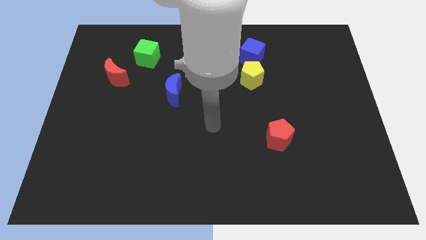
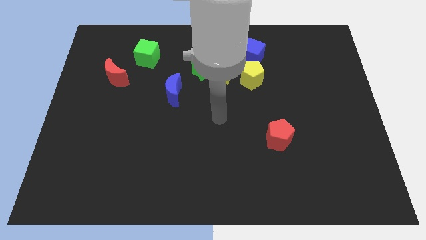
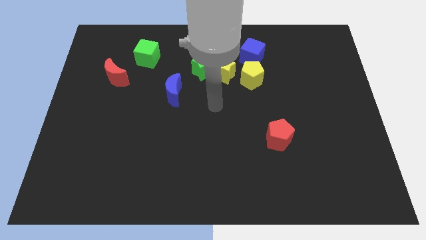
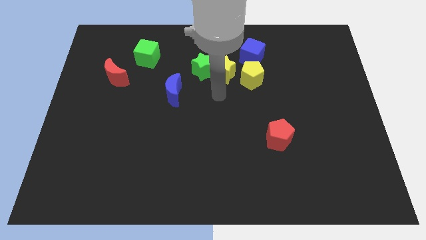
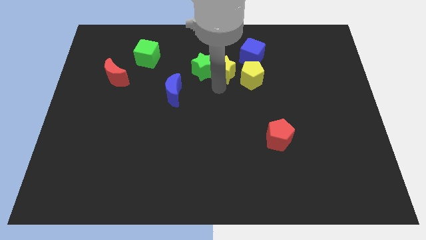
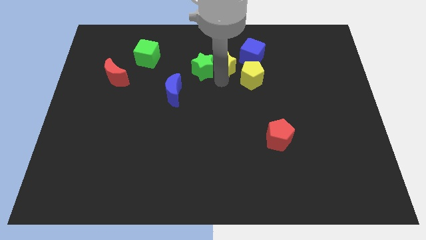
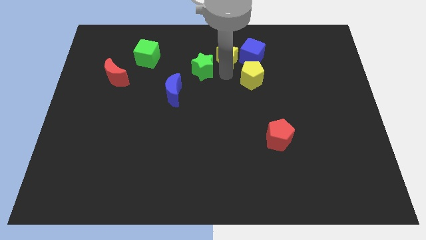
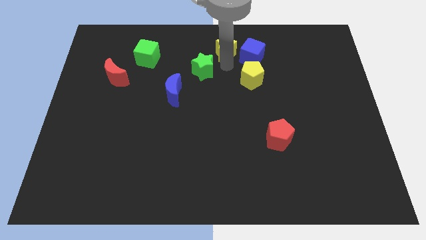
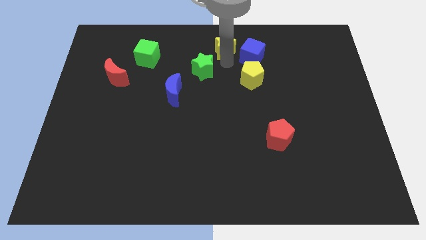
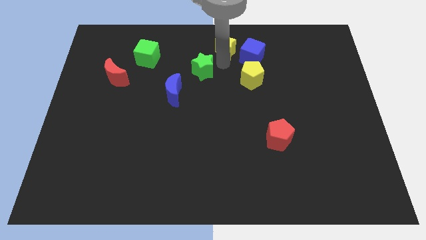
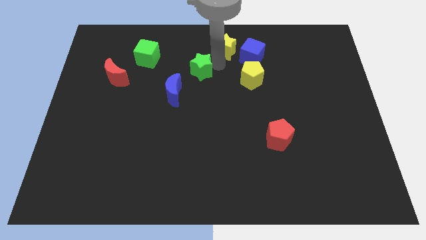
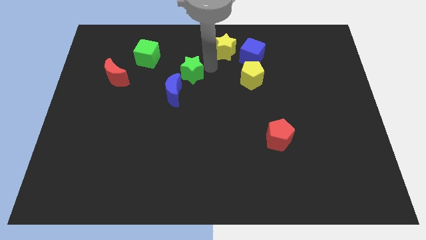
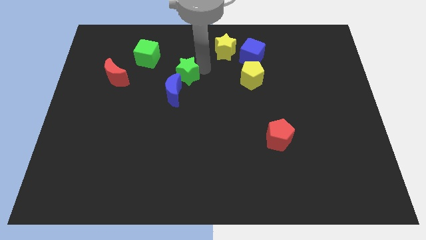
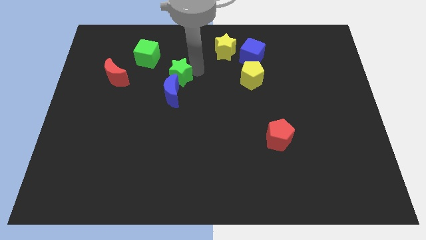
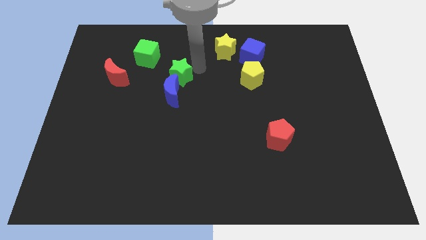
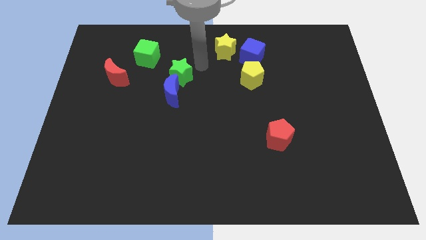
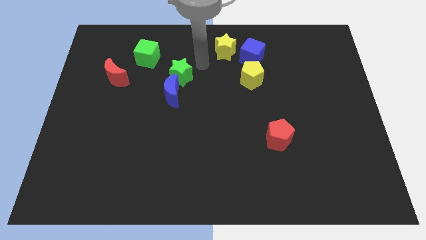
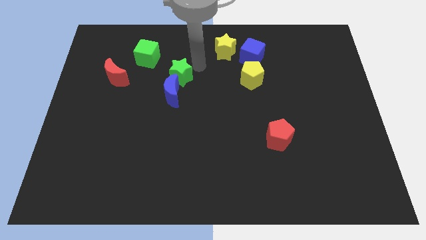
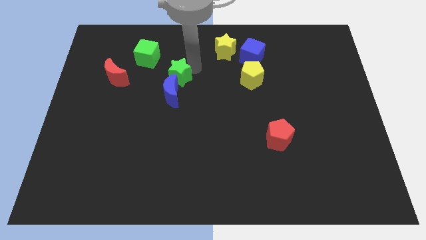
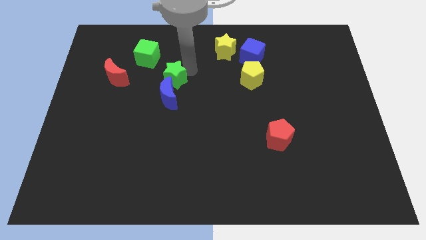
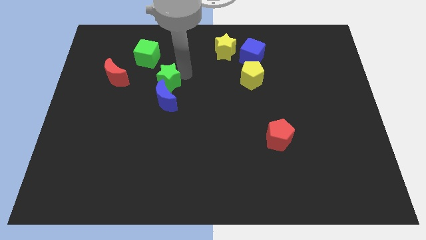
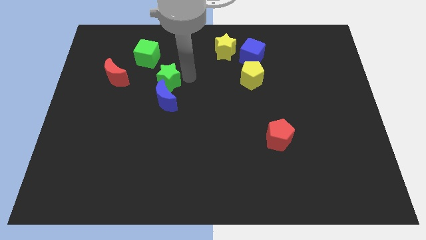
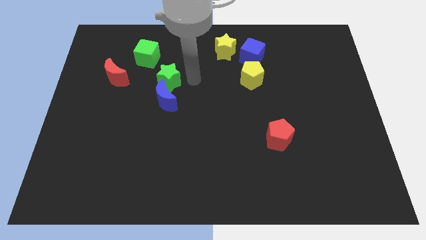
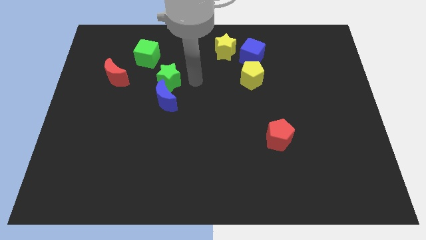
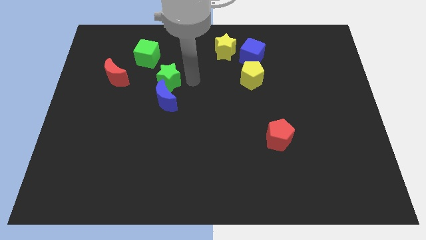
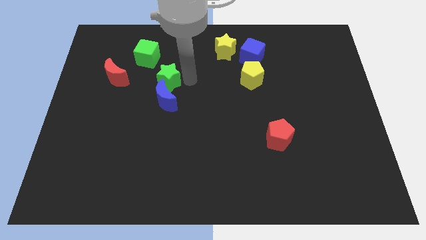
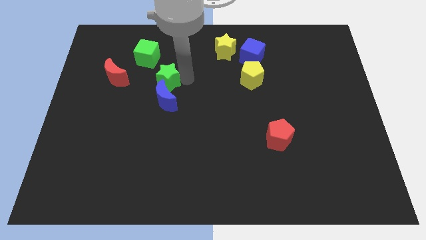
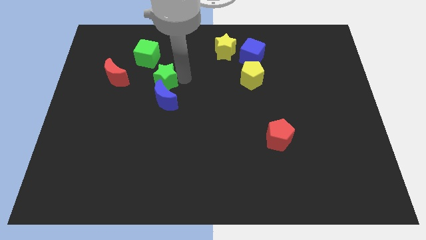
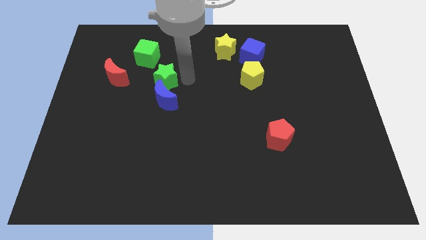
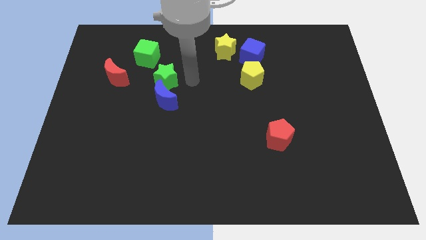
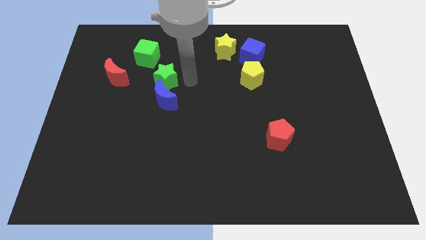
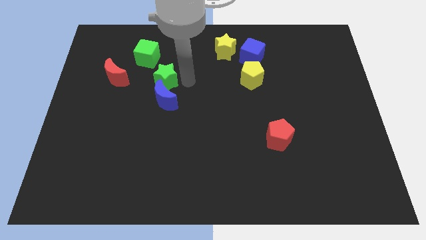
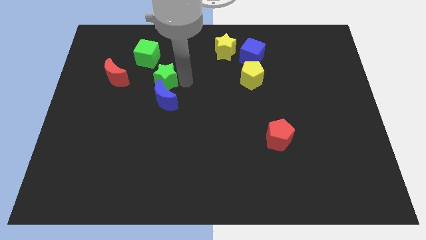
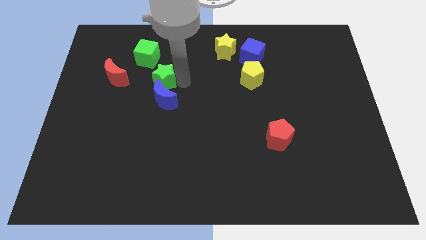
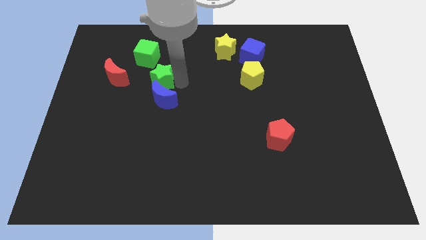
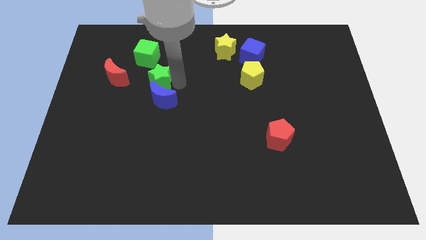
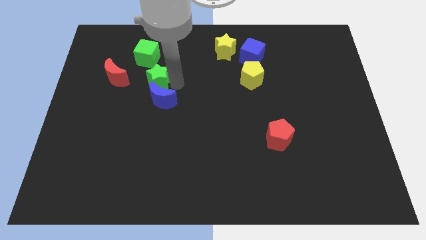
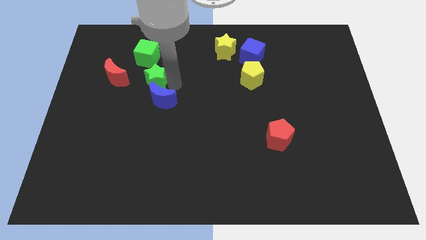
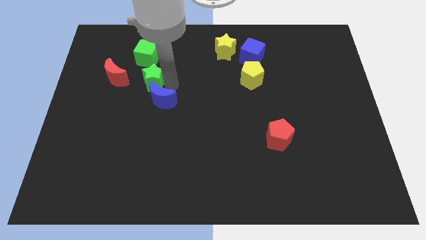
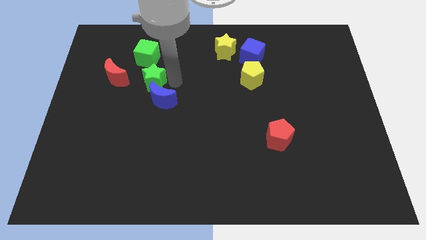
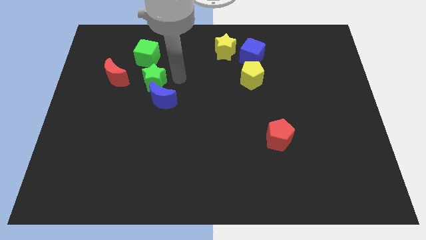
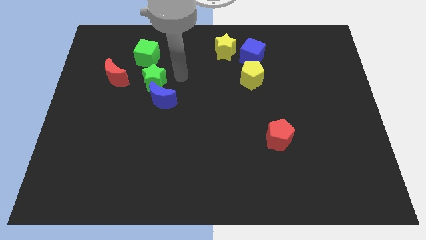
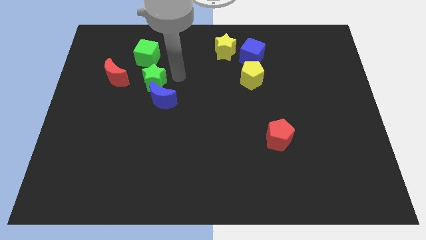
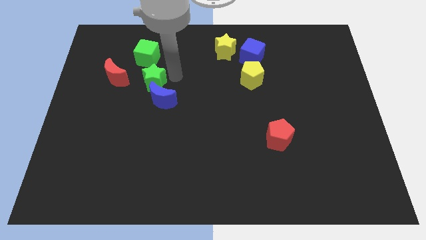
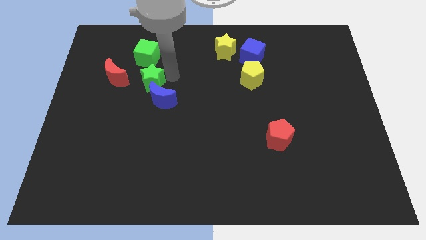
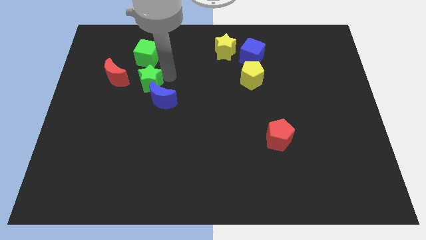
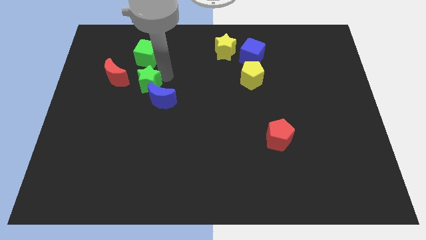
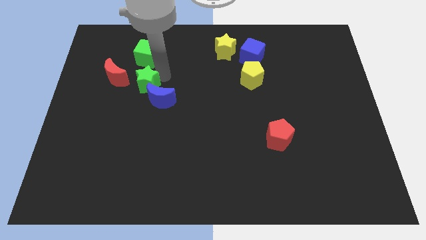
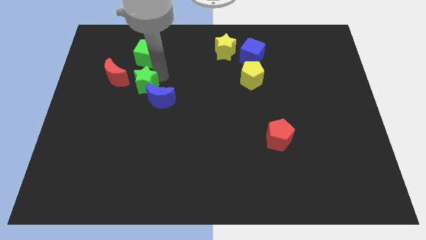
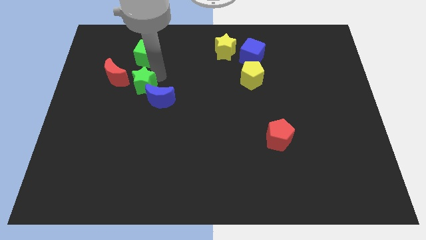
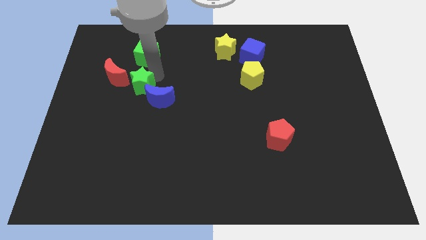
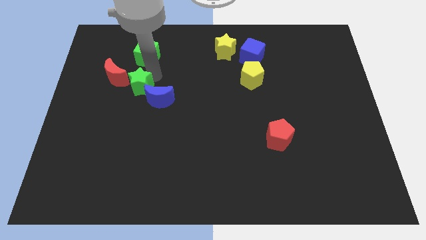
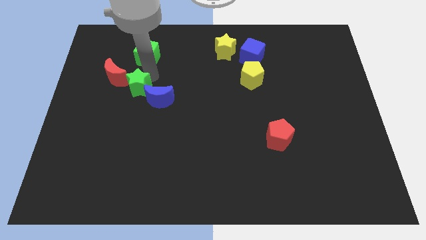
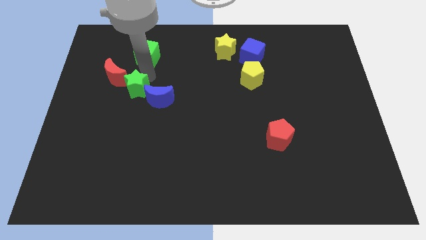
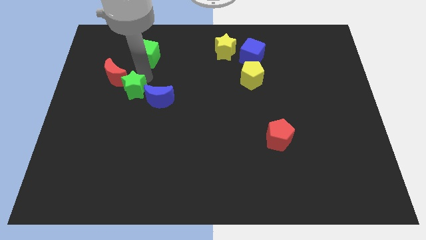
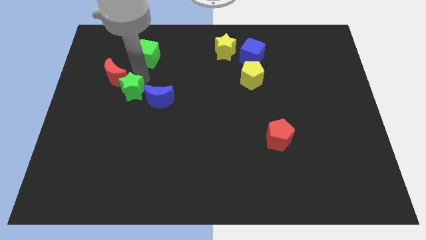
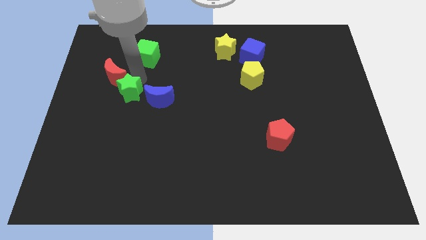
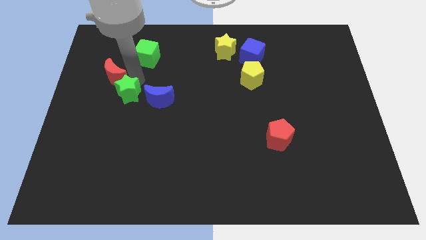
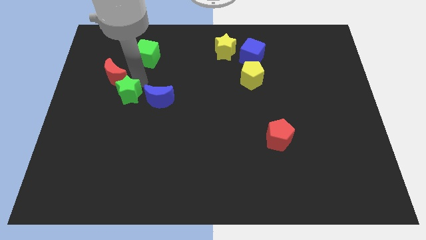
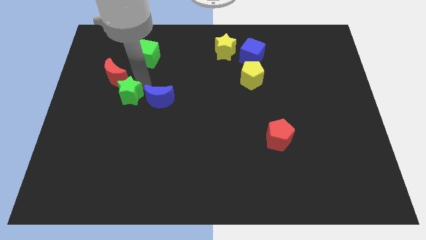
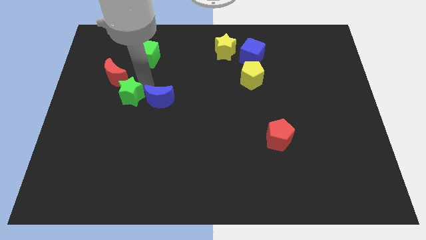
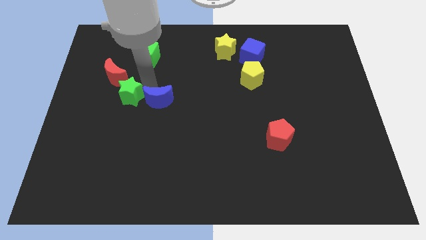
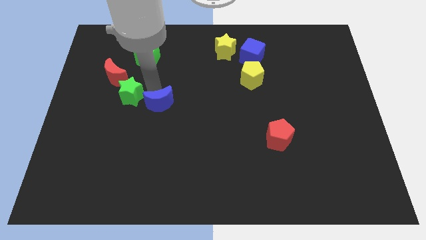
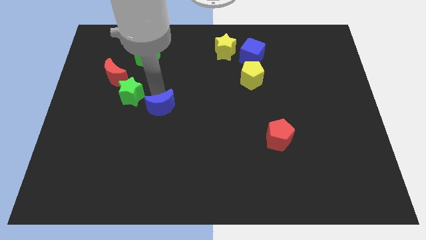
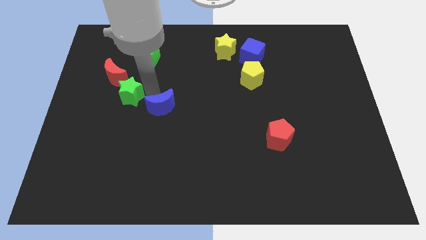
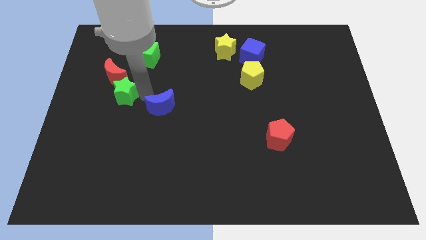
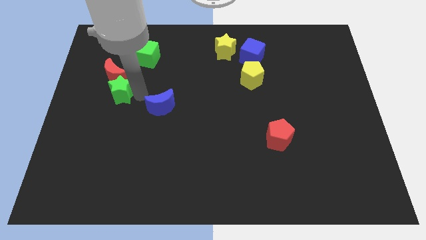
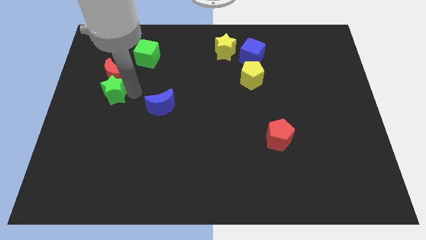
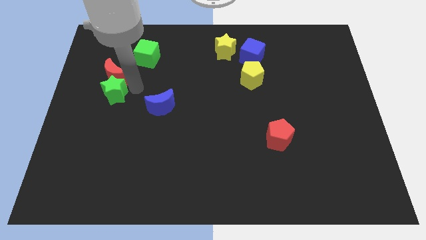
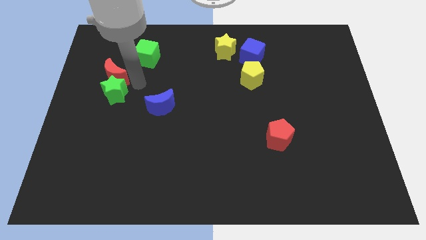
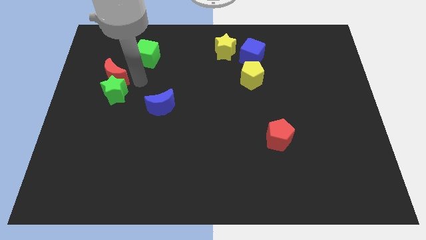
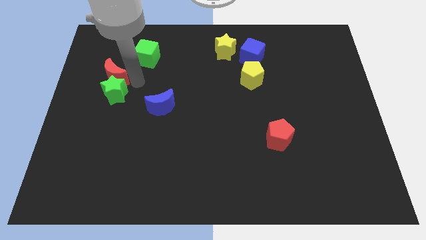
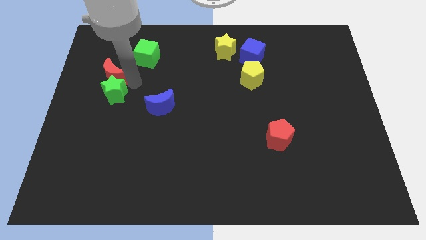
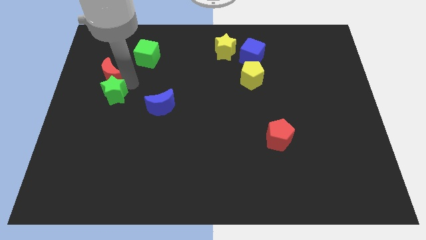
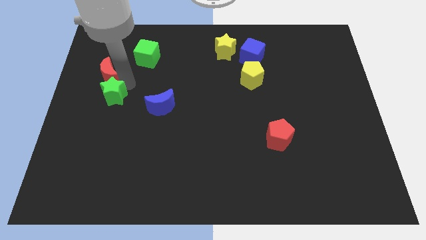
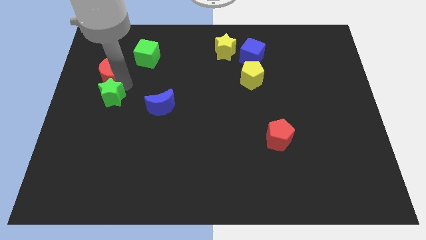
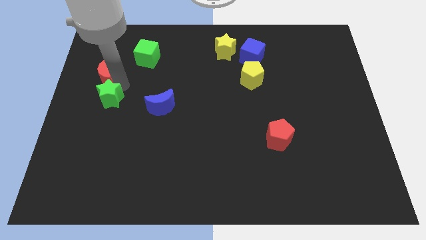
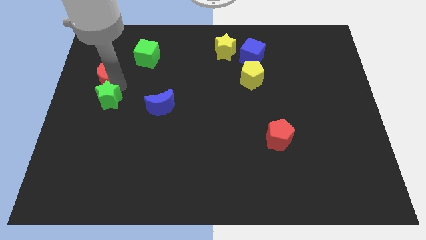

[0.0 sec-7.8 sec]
put the green star to the left side
